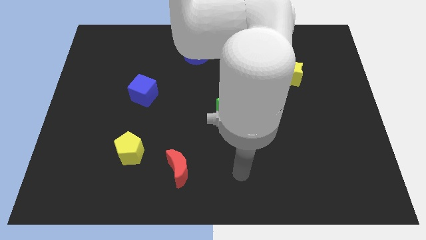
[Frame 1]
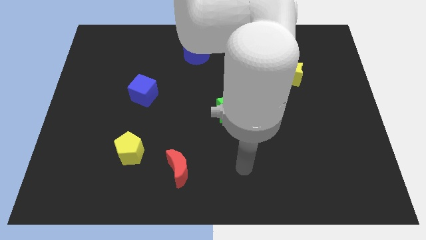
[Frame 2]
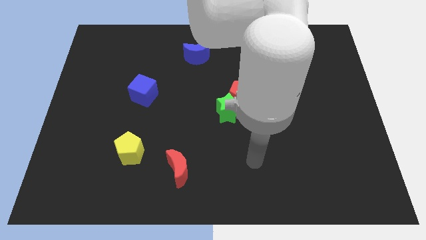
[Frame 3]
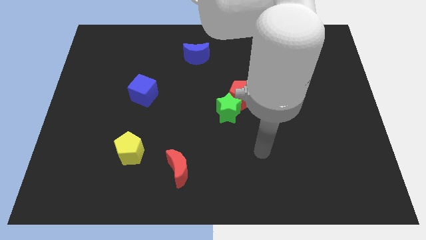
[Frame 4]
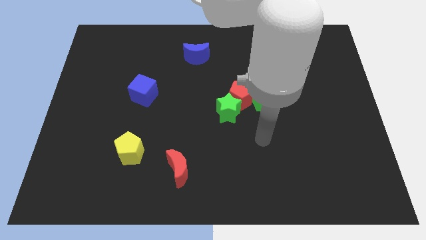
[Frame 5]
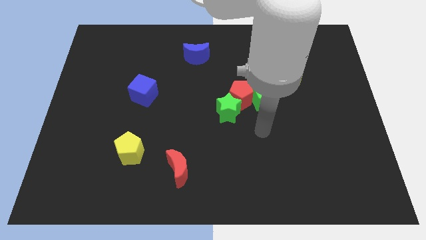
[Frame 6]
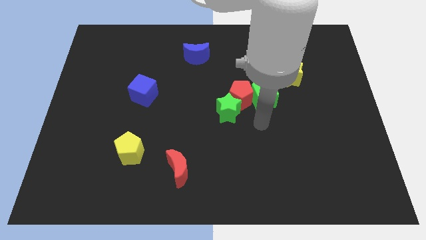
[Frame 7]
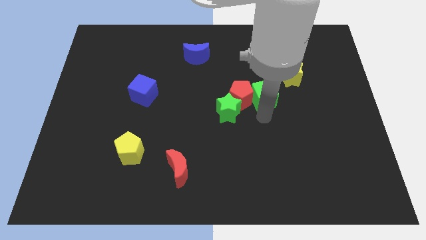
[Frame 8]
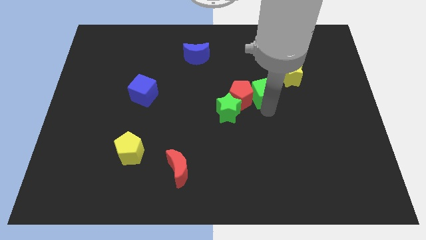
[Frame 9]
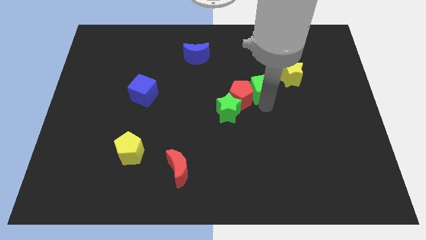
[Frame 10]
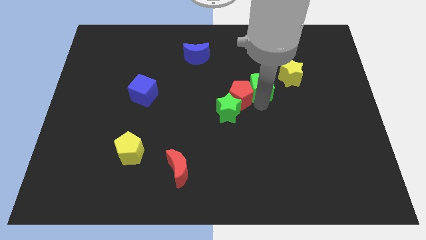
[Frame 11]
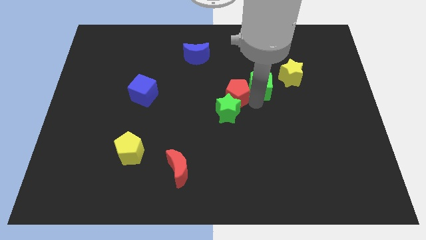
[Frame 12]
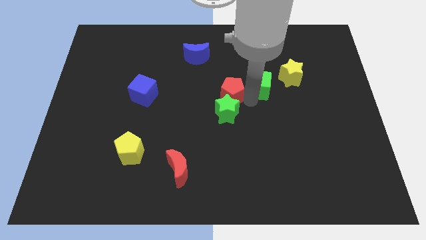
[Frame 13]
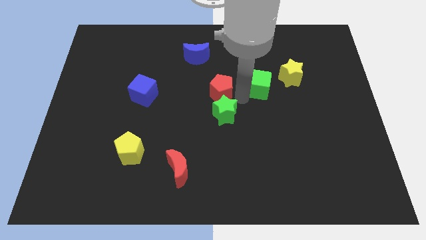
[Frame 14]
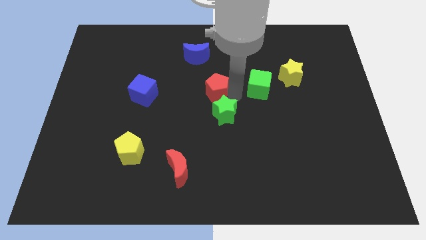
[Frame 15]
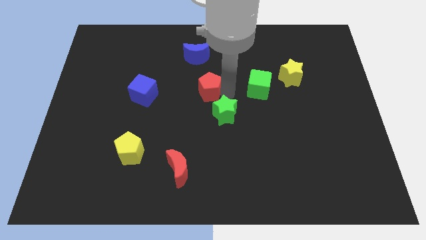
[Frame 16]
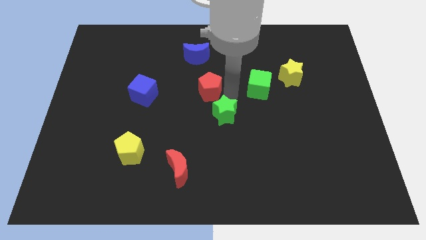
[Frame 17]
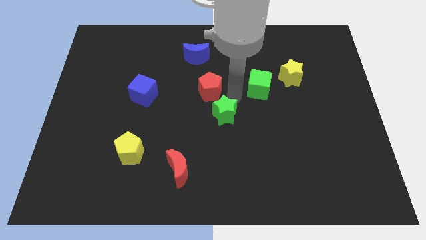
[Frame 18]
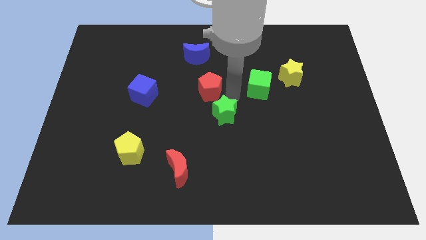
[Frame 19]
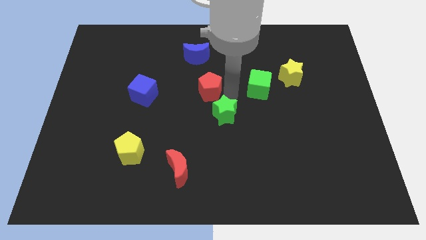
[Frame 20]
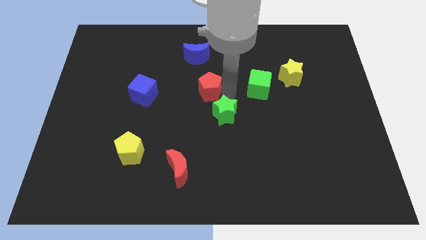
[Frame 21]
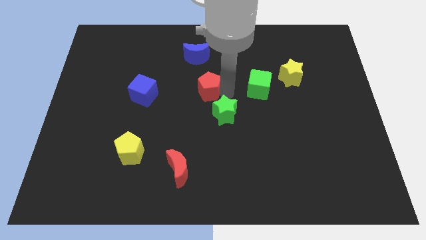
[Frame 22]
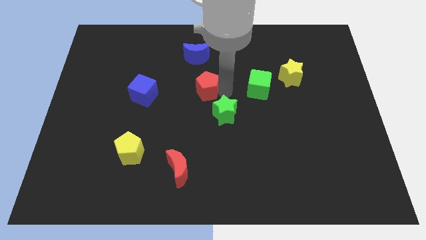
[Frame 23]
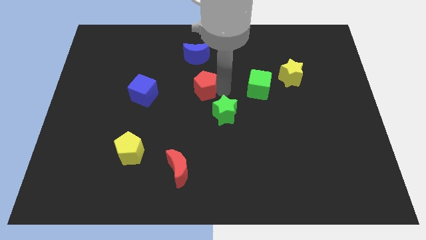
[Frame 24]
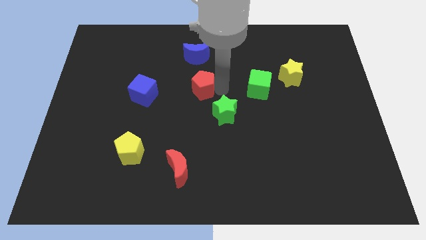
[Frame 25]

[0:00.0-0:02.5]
move the red pentagon away from the green star and green cube

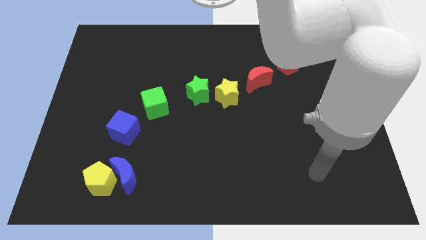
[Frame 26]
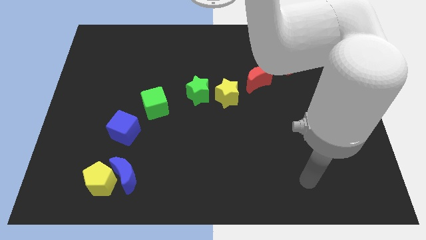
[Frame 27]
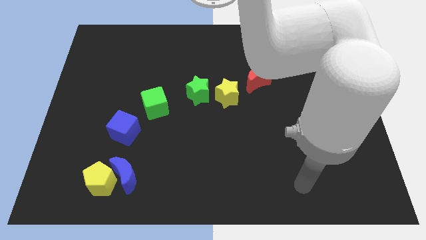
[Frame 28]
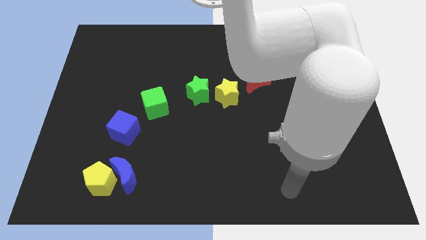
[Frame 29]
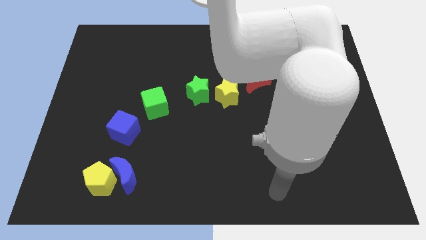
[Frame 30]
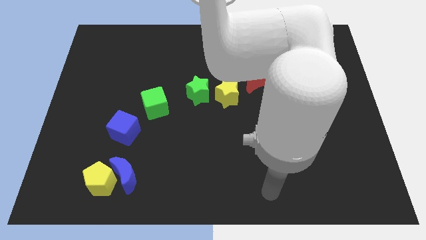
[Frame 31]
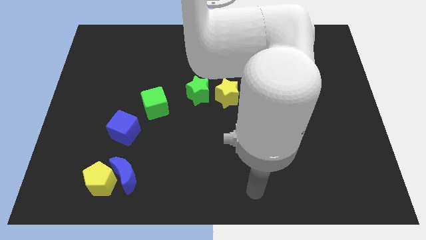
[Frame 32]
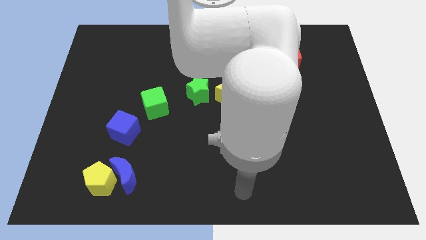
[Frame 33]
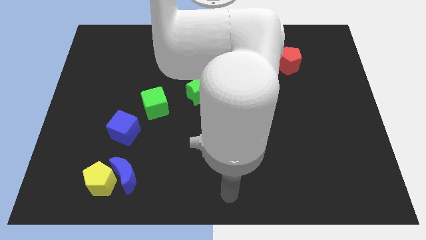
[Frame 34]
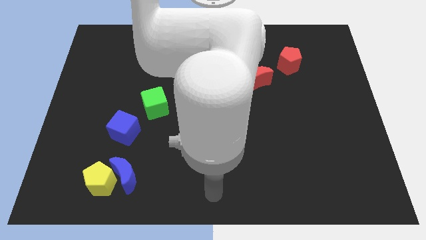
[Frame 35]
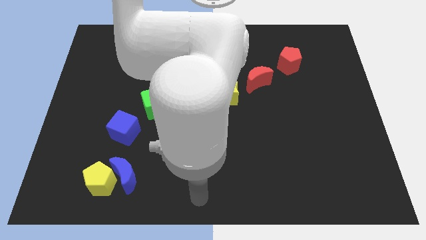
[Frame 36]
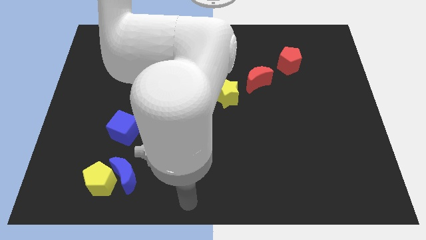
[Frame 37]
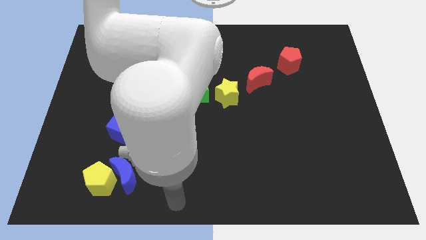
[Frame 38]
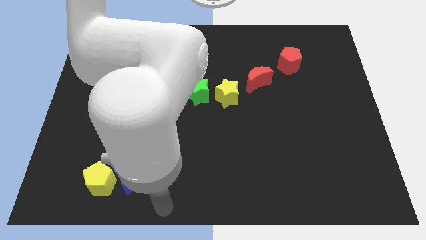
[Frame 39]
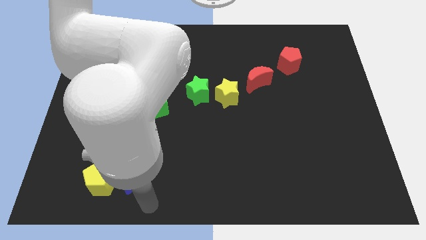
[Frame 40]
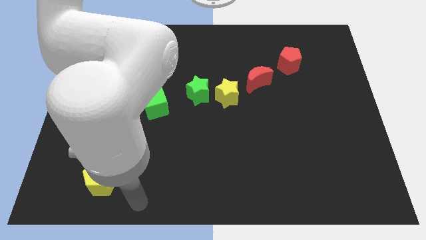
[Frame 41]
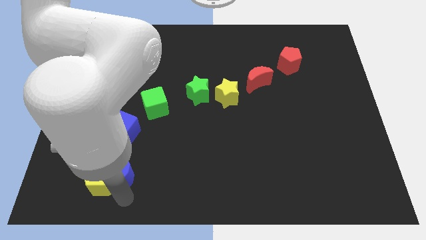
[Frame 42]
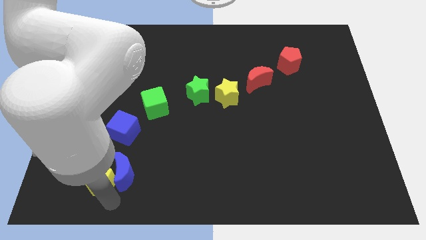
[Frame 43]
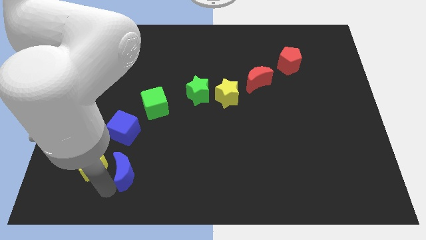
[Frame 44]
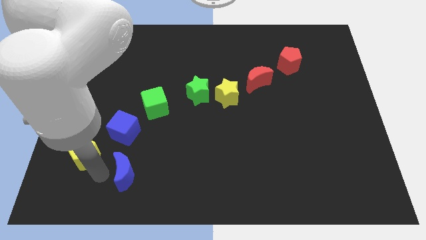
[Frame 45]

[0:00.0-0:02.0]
pull the blue moon apart from the yellow pentagon

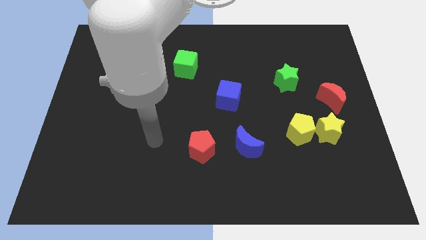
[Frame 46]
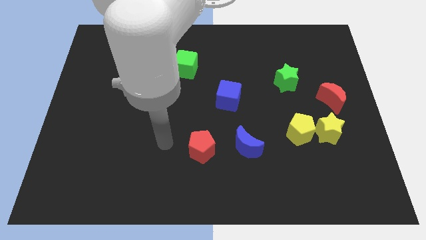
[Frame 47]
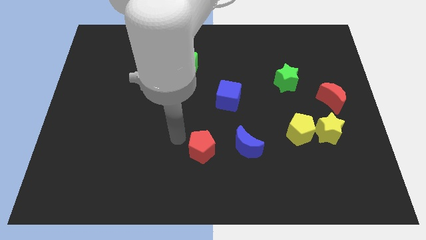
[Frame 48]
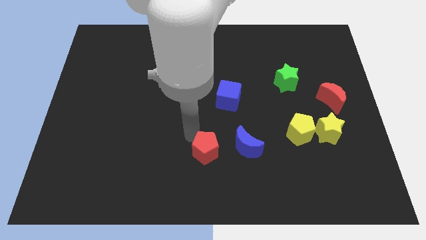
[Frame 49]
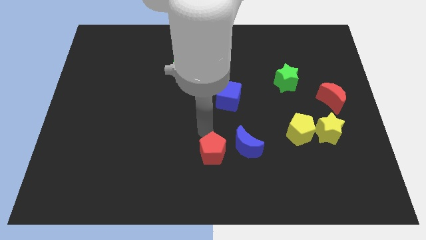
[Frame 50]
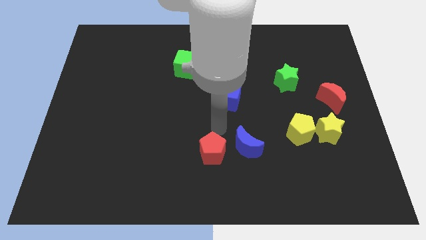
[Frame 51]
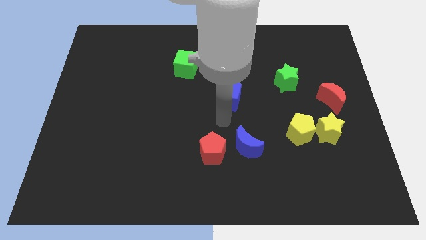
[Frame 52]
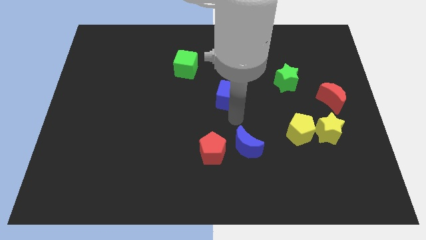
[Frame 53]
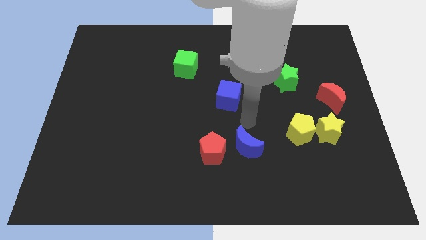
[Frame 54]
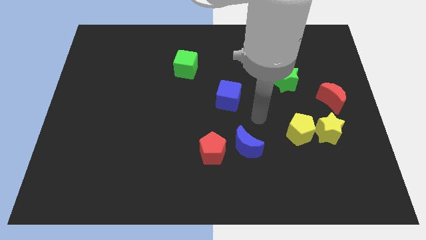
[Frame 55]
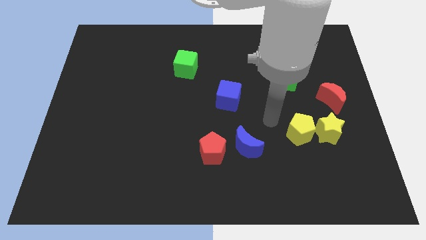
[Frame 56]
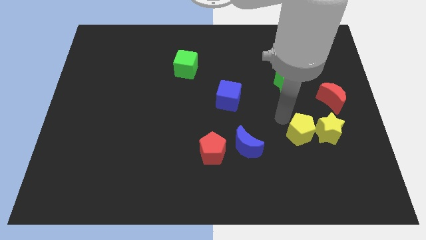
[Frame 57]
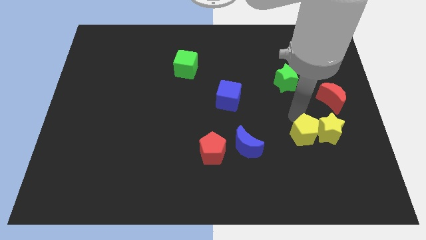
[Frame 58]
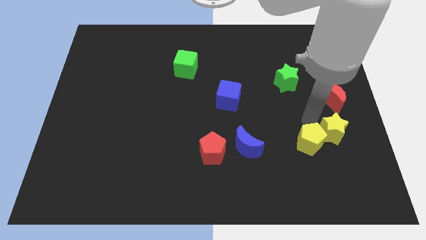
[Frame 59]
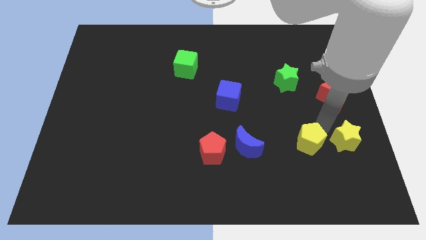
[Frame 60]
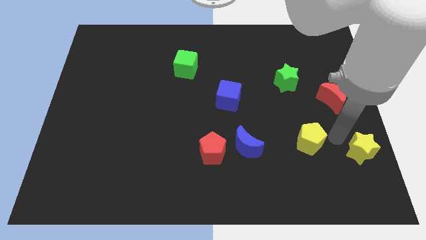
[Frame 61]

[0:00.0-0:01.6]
pull the yellow pentagon apart from the yellow star

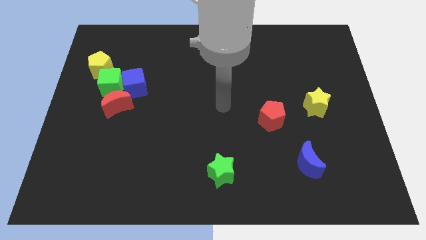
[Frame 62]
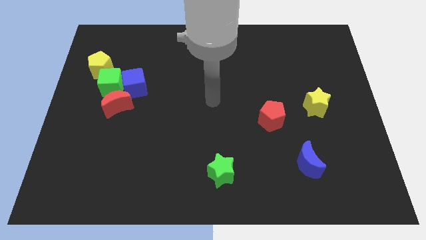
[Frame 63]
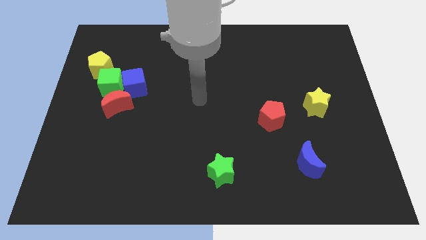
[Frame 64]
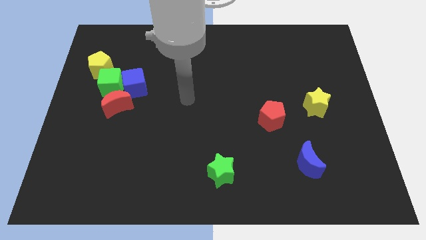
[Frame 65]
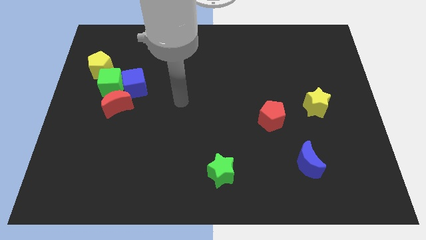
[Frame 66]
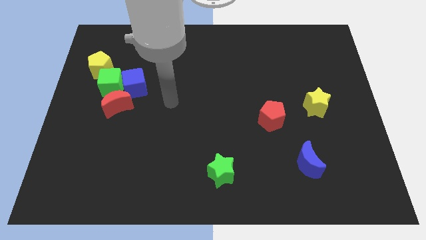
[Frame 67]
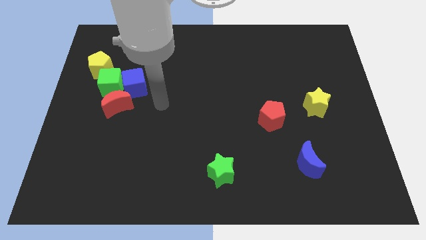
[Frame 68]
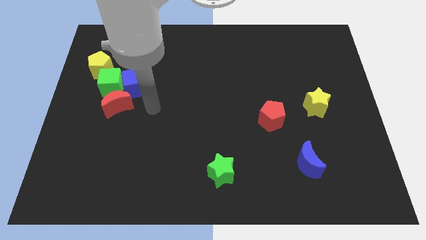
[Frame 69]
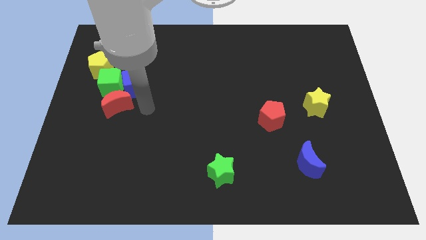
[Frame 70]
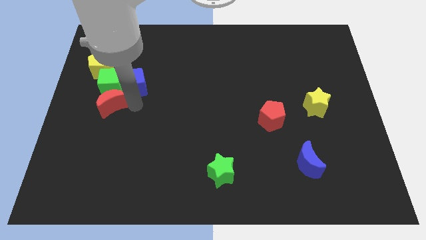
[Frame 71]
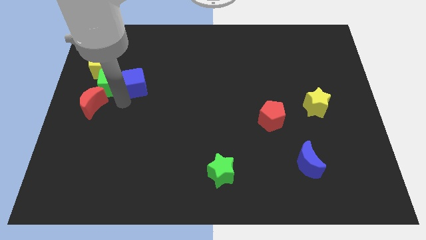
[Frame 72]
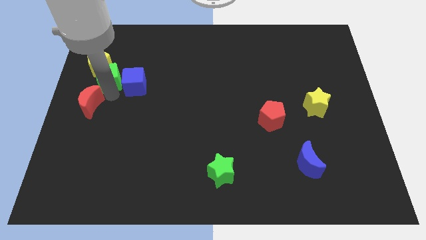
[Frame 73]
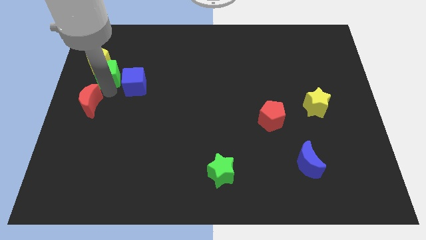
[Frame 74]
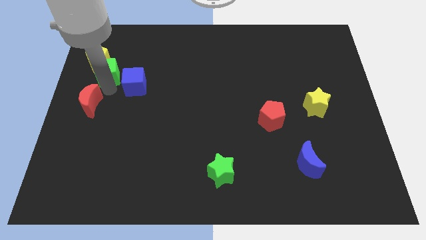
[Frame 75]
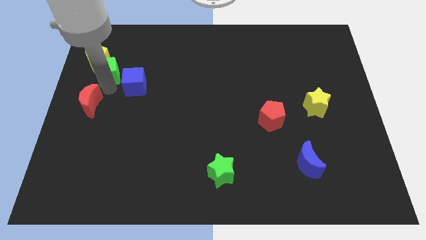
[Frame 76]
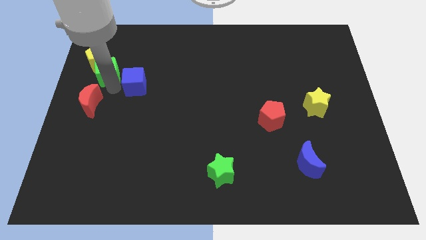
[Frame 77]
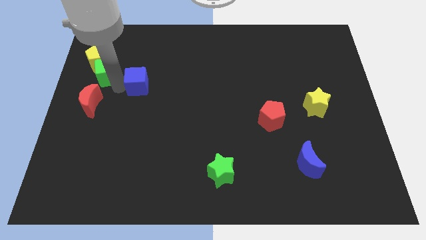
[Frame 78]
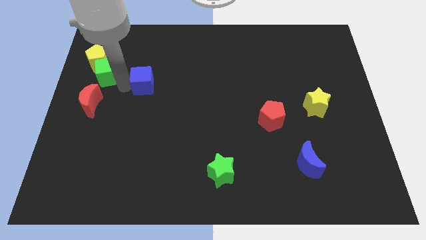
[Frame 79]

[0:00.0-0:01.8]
separate the blue cube from the green cube and red moon

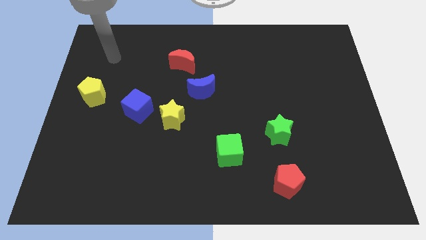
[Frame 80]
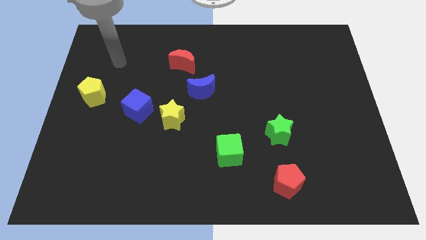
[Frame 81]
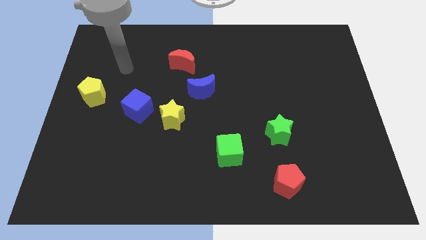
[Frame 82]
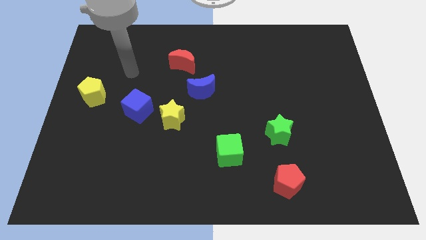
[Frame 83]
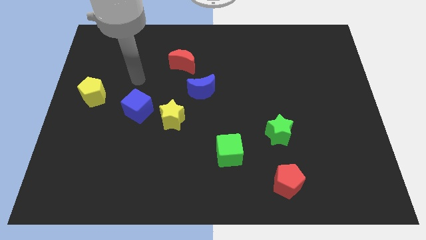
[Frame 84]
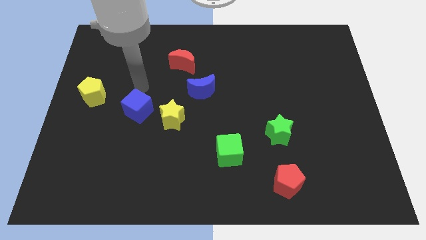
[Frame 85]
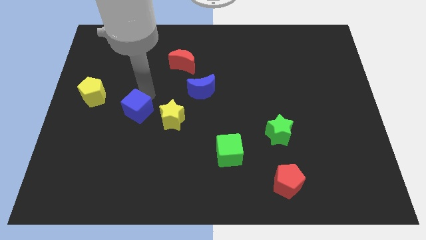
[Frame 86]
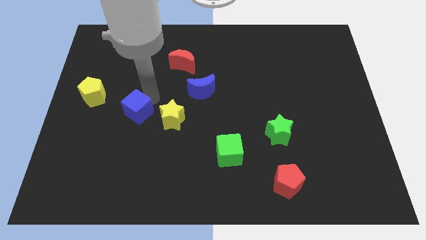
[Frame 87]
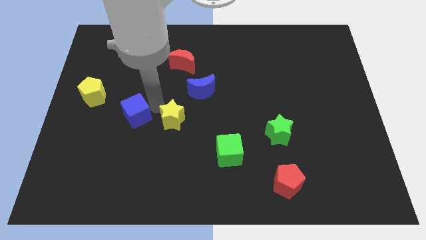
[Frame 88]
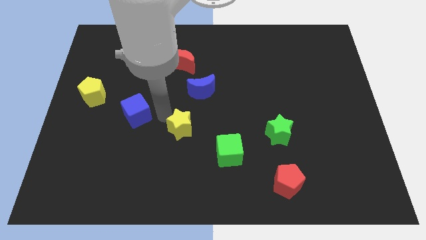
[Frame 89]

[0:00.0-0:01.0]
move the blue cube away from the yellow star

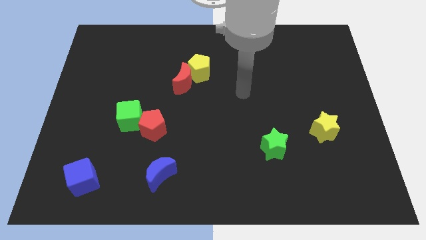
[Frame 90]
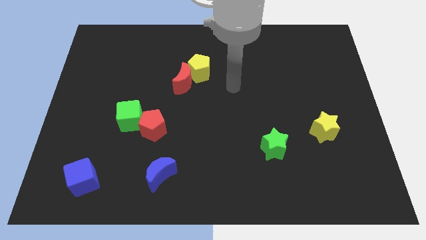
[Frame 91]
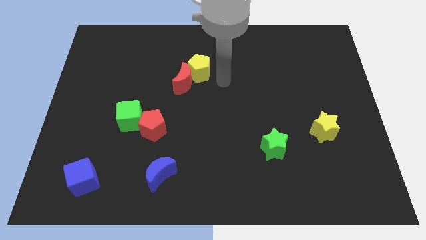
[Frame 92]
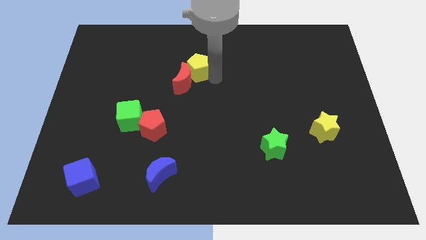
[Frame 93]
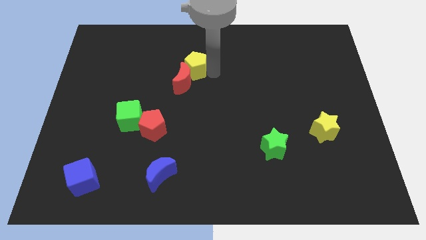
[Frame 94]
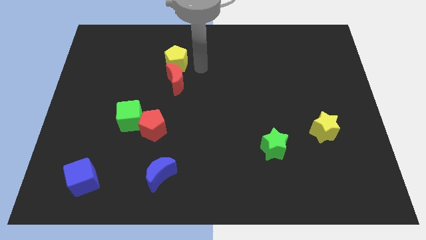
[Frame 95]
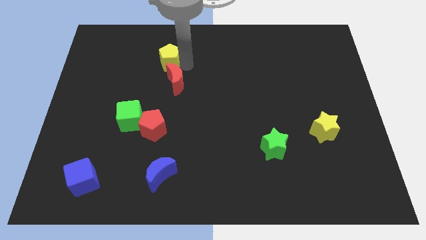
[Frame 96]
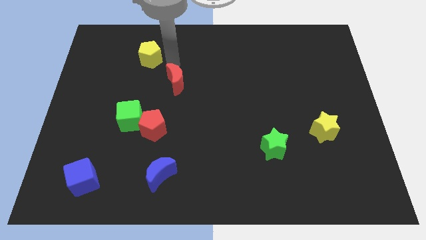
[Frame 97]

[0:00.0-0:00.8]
move the red moon away from the yellow pentagon
